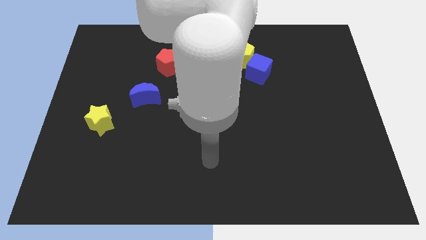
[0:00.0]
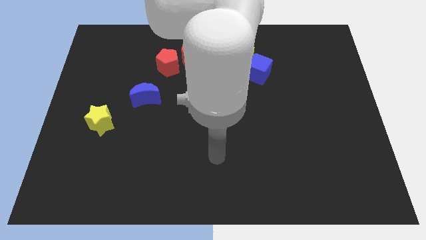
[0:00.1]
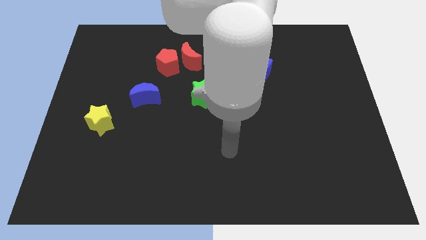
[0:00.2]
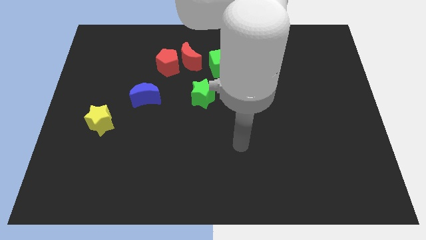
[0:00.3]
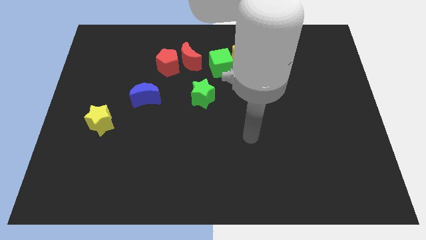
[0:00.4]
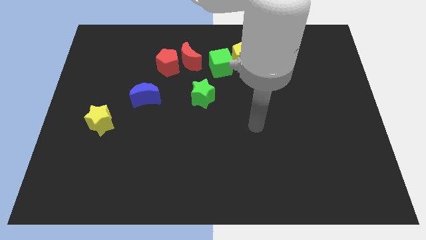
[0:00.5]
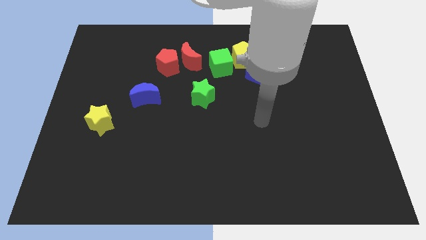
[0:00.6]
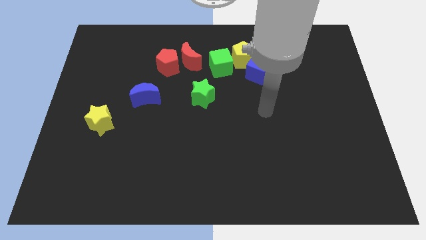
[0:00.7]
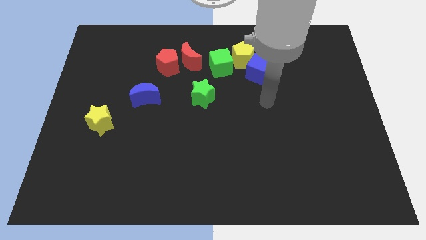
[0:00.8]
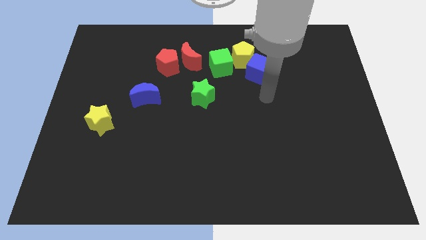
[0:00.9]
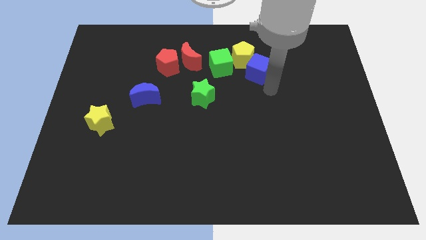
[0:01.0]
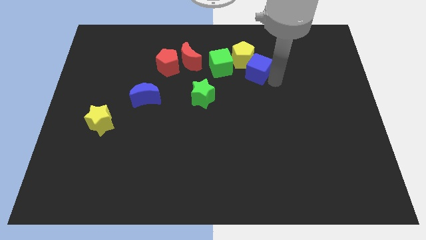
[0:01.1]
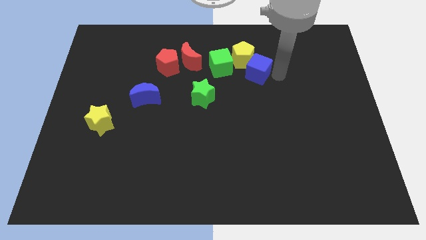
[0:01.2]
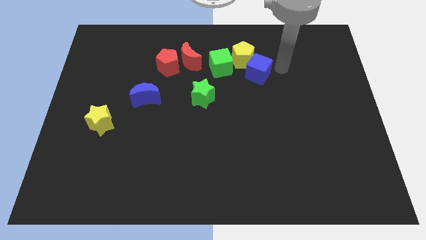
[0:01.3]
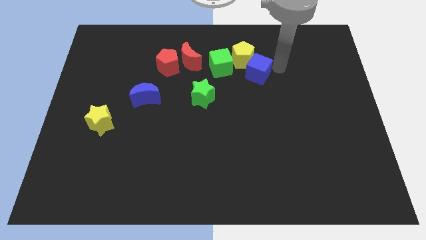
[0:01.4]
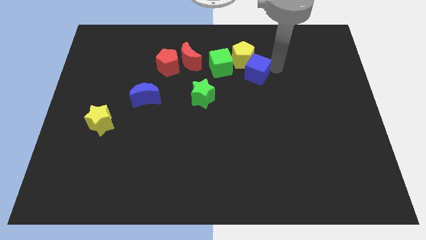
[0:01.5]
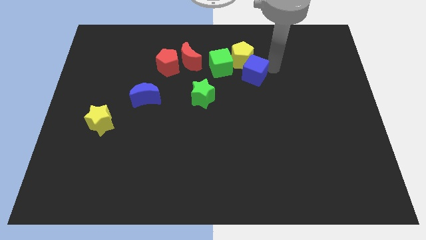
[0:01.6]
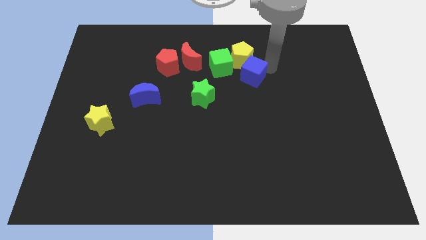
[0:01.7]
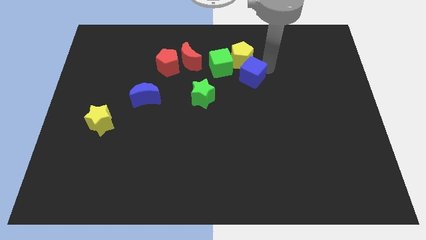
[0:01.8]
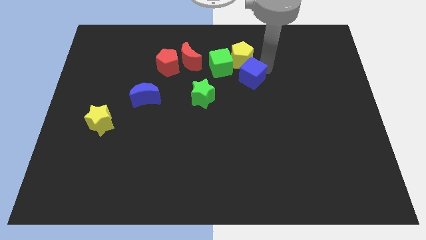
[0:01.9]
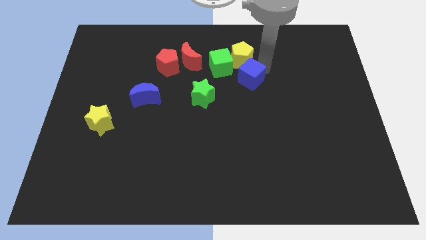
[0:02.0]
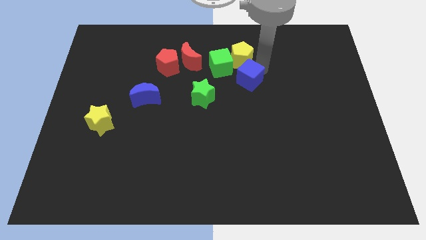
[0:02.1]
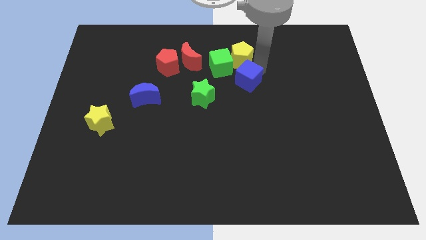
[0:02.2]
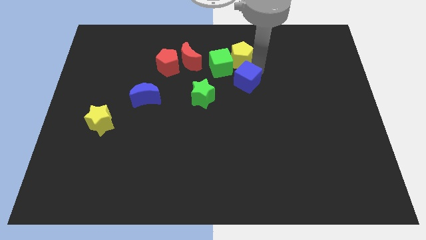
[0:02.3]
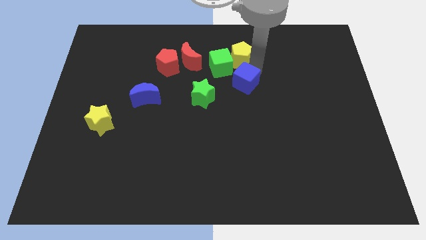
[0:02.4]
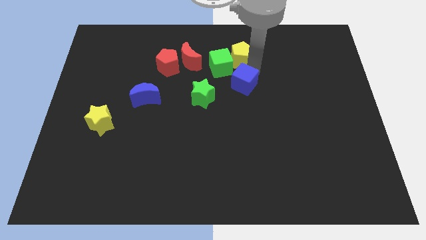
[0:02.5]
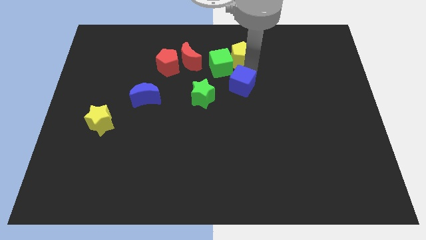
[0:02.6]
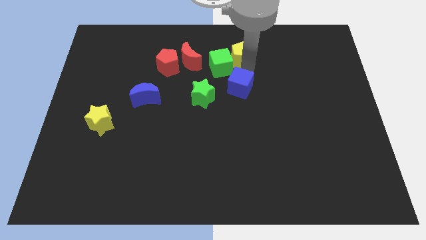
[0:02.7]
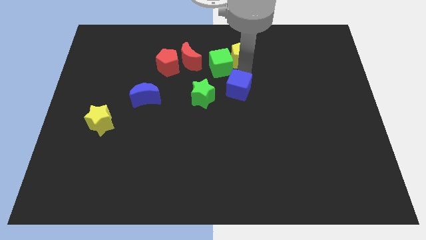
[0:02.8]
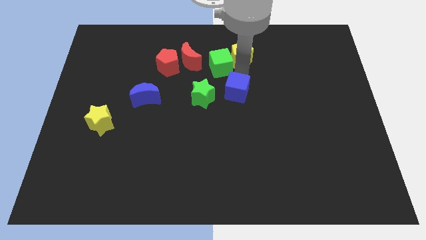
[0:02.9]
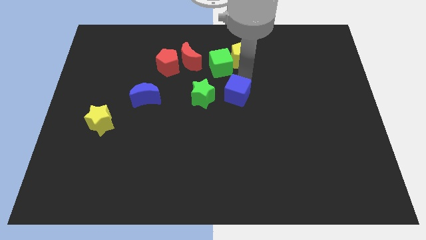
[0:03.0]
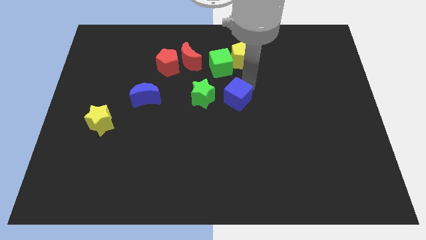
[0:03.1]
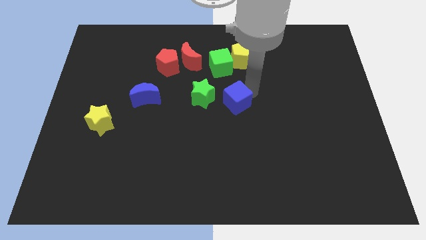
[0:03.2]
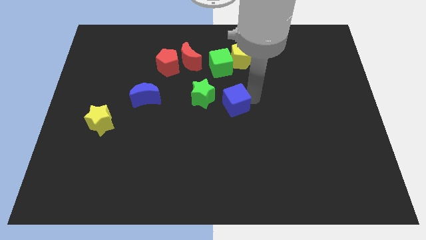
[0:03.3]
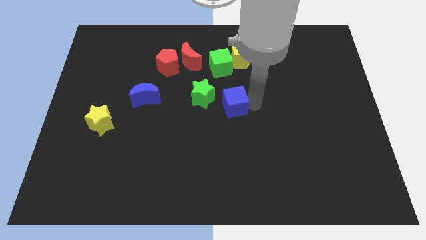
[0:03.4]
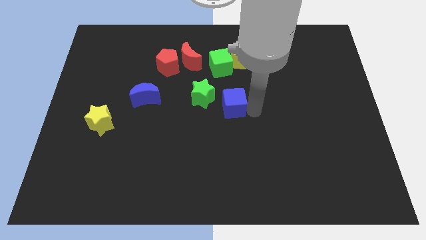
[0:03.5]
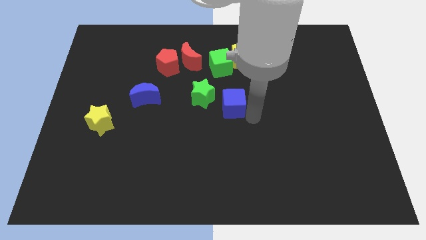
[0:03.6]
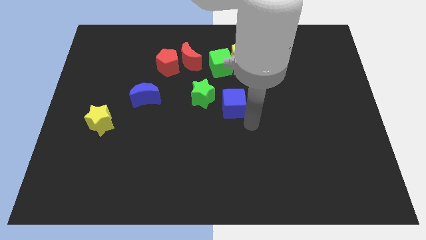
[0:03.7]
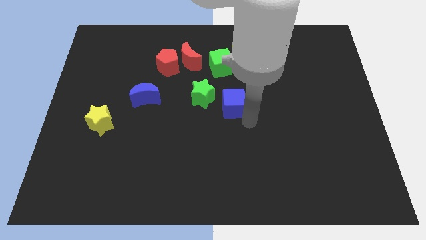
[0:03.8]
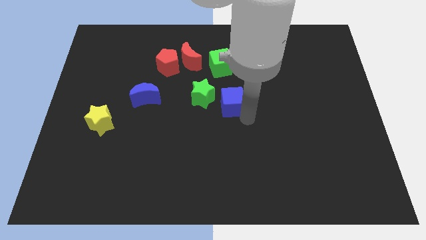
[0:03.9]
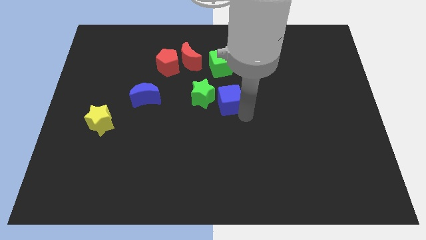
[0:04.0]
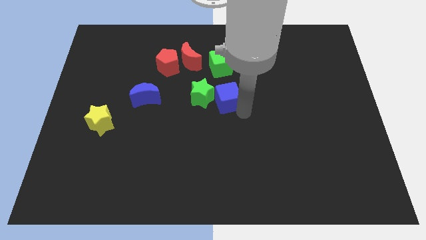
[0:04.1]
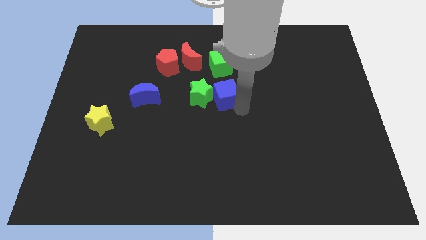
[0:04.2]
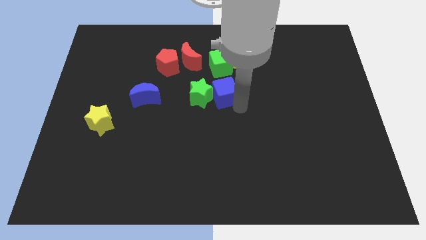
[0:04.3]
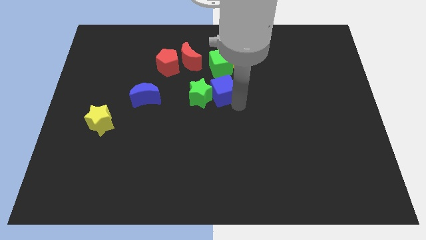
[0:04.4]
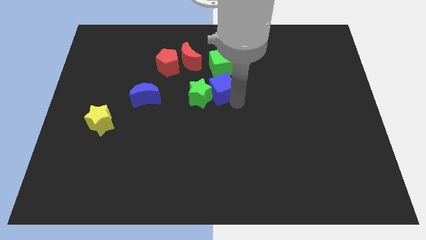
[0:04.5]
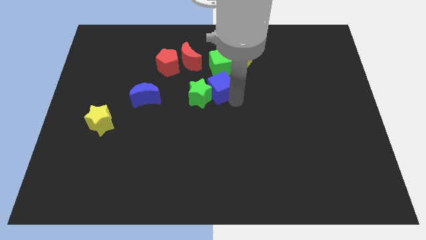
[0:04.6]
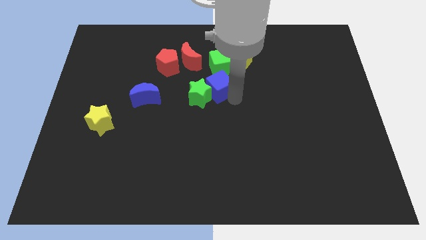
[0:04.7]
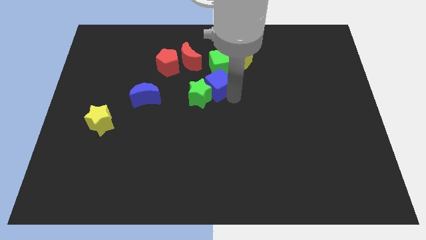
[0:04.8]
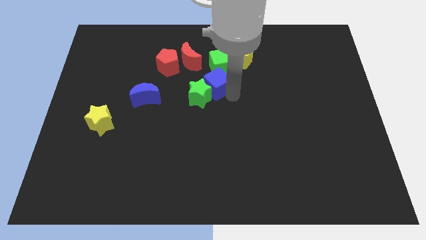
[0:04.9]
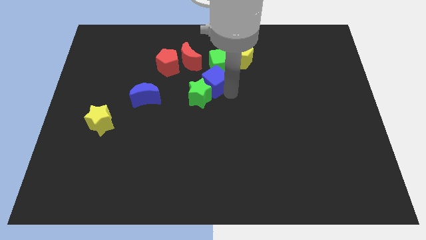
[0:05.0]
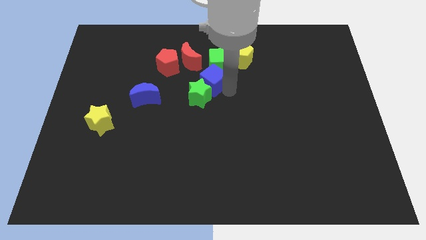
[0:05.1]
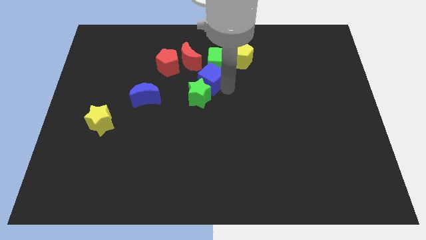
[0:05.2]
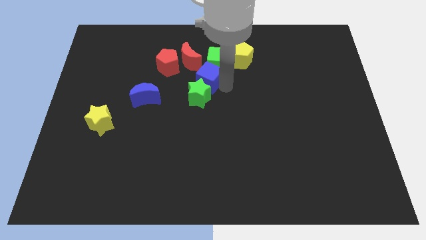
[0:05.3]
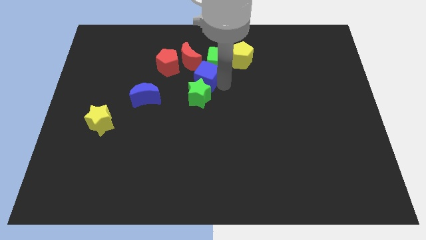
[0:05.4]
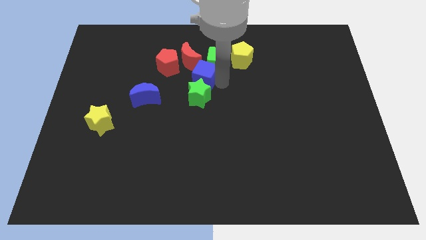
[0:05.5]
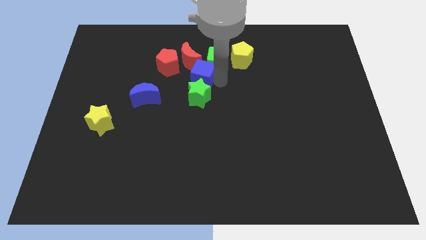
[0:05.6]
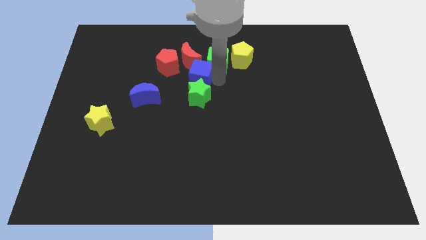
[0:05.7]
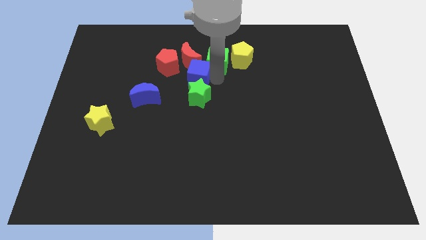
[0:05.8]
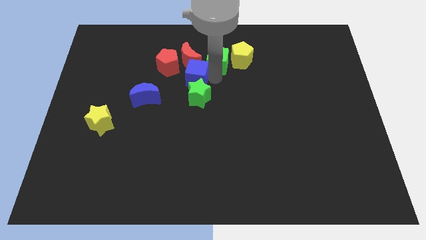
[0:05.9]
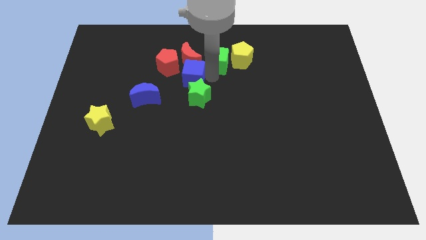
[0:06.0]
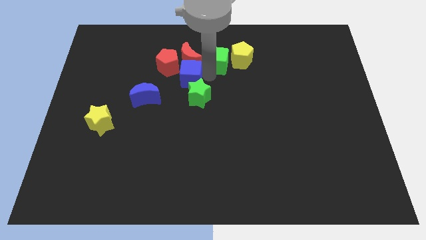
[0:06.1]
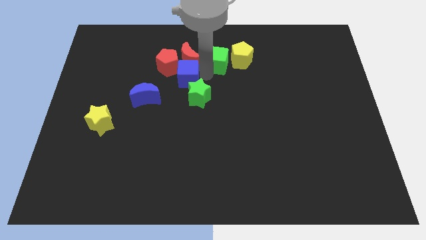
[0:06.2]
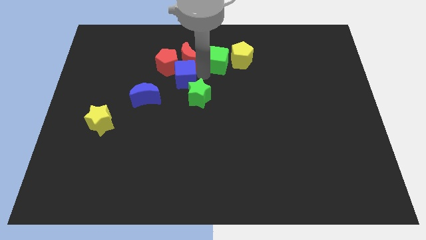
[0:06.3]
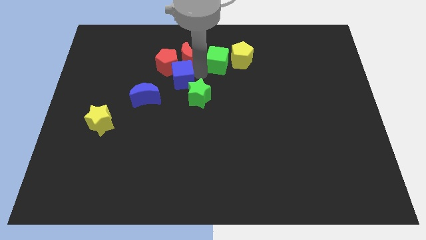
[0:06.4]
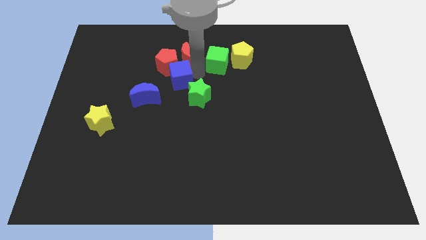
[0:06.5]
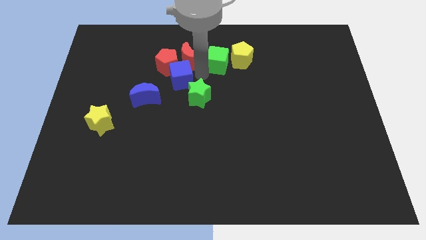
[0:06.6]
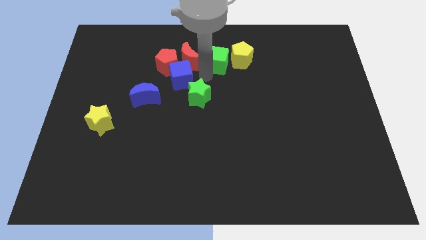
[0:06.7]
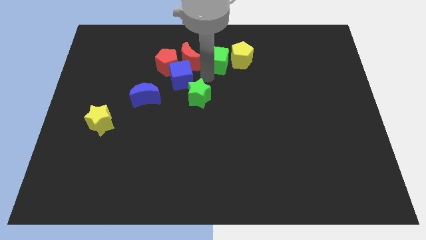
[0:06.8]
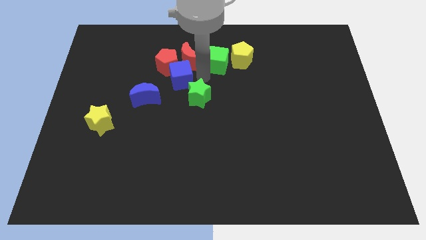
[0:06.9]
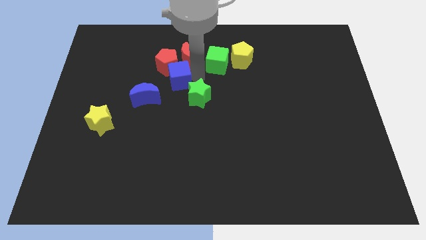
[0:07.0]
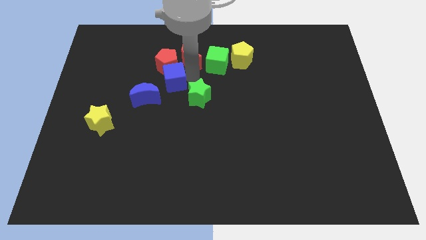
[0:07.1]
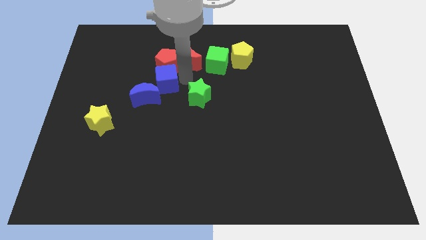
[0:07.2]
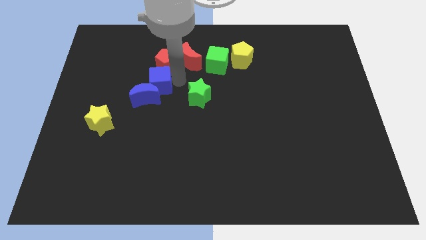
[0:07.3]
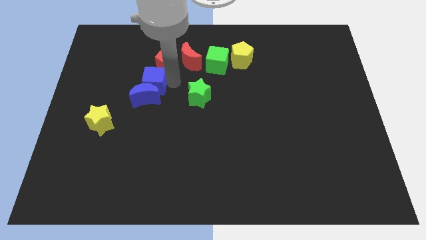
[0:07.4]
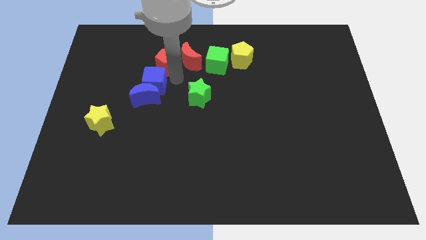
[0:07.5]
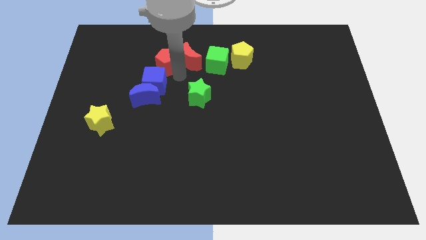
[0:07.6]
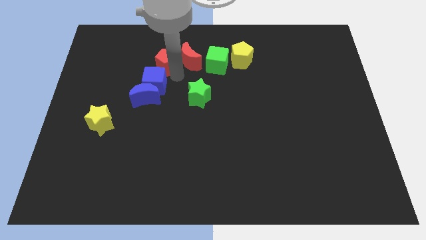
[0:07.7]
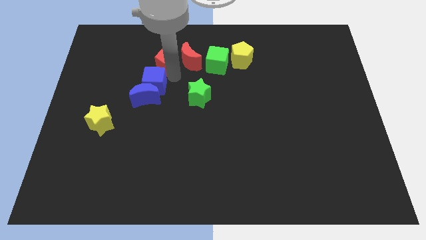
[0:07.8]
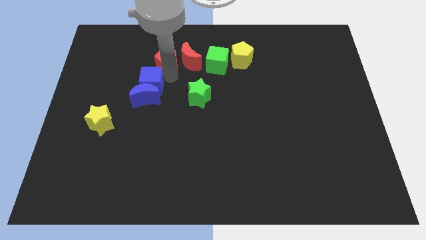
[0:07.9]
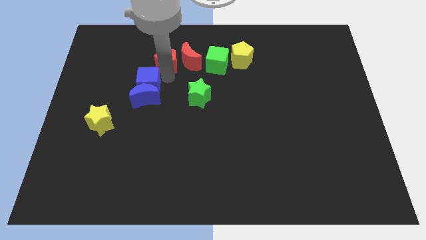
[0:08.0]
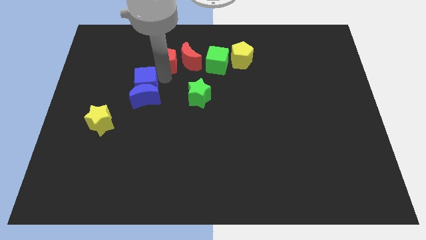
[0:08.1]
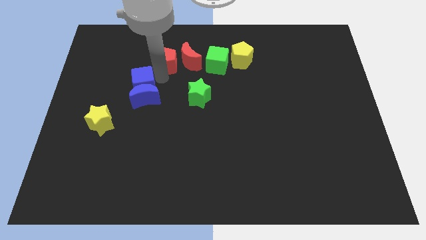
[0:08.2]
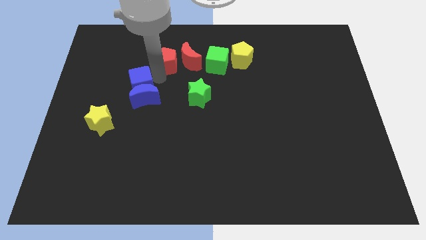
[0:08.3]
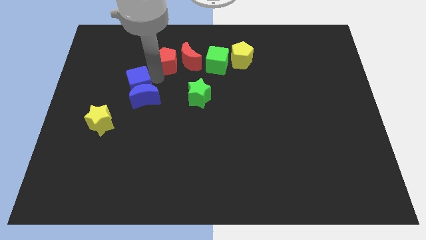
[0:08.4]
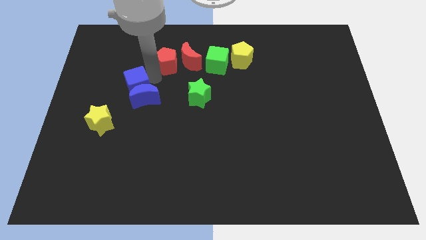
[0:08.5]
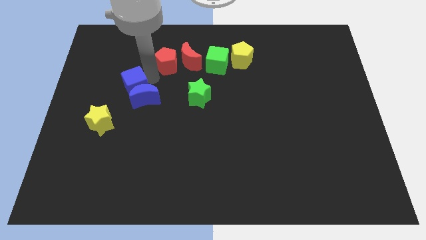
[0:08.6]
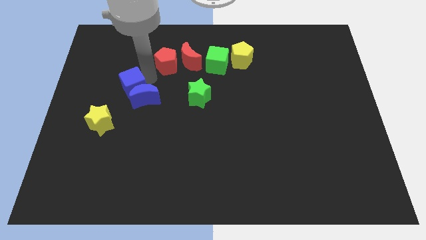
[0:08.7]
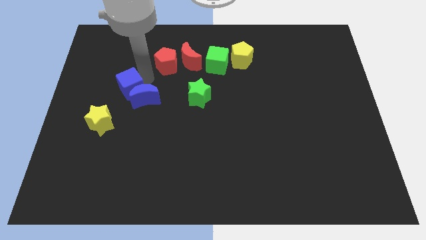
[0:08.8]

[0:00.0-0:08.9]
slide the blue cube diagonally up and to the right of the yellow star
